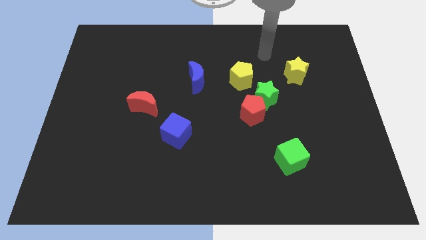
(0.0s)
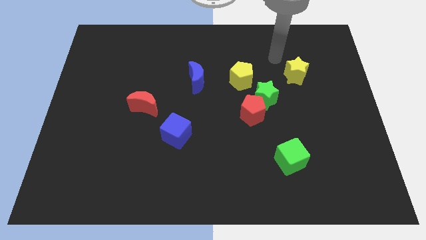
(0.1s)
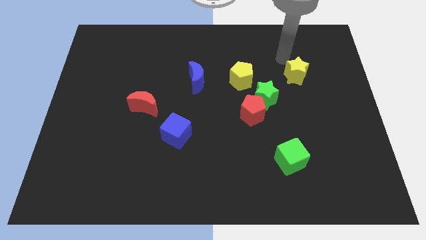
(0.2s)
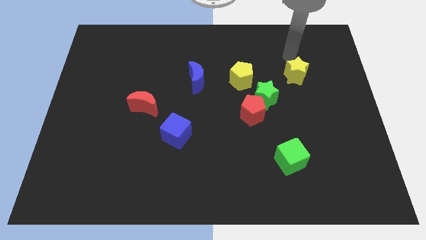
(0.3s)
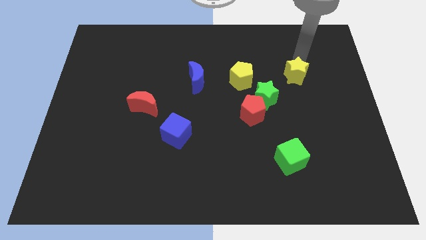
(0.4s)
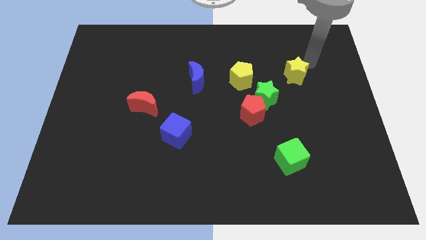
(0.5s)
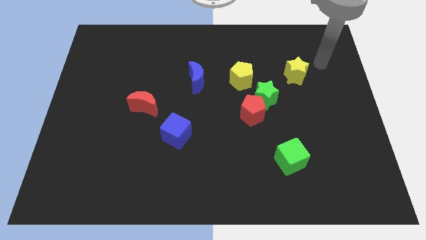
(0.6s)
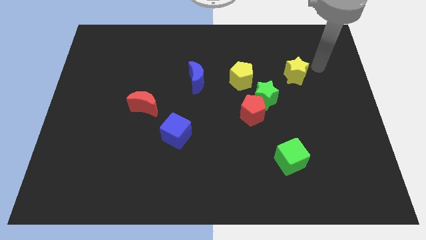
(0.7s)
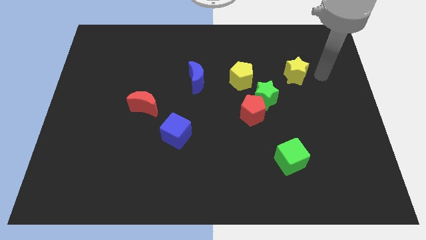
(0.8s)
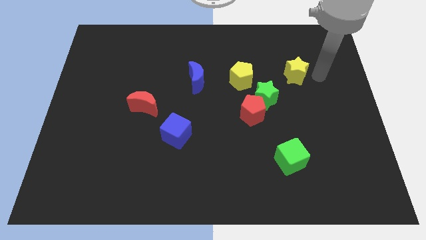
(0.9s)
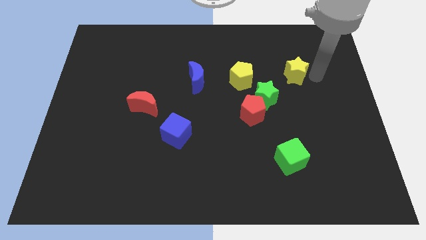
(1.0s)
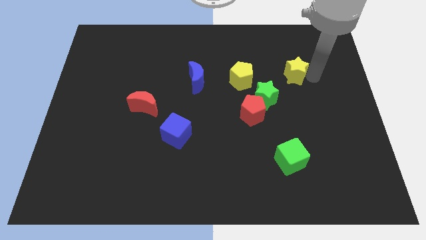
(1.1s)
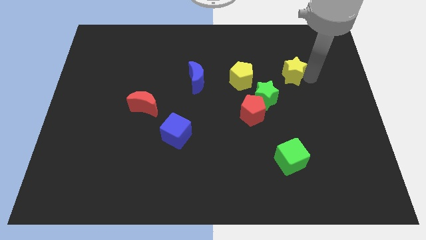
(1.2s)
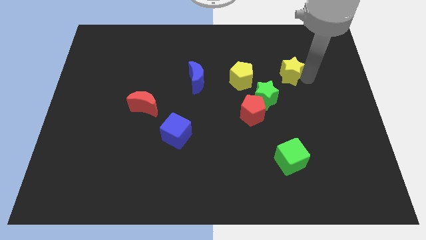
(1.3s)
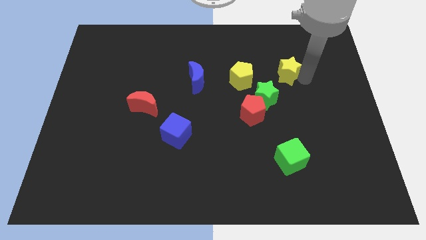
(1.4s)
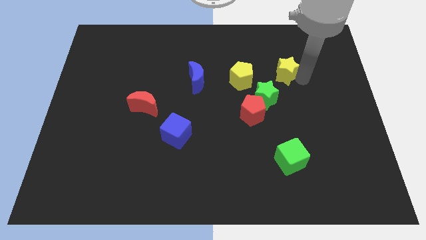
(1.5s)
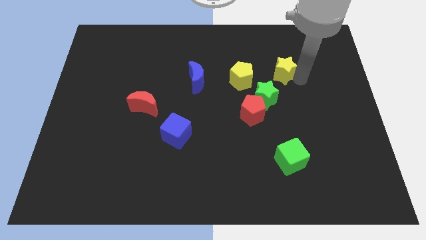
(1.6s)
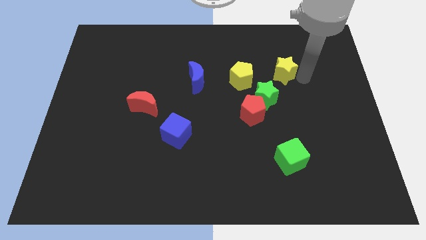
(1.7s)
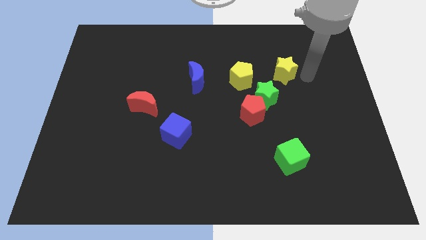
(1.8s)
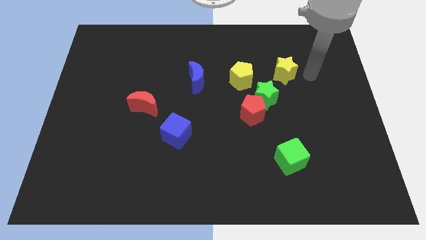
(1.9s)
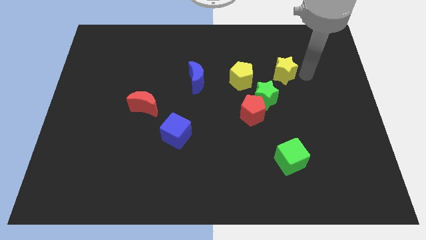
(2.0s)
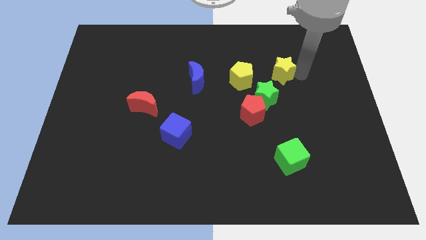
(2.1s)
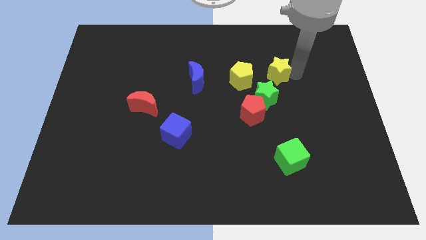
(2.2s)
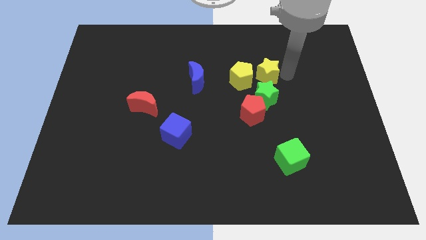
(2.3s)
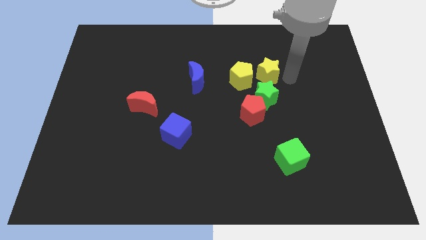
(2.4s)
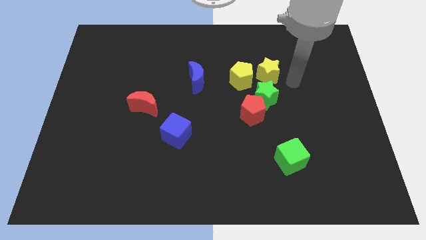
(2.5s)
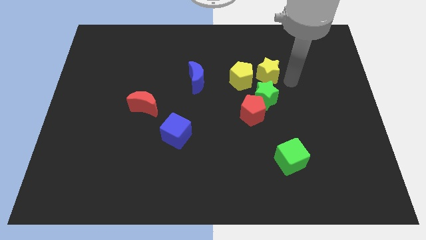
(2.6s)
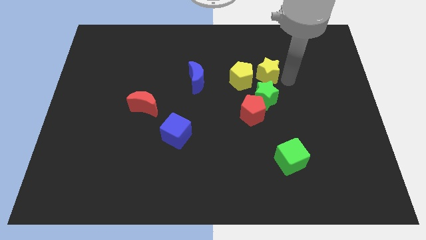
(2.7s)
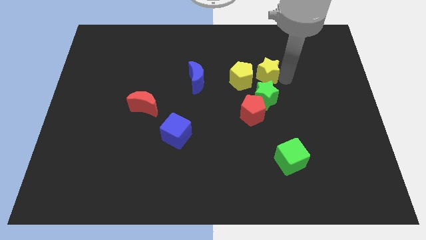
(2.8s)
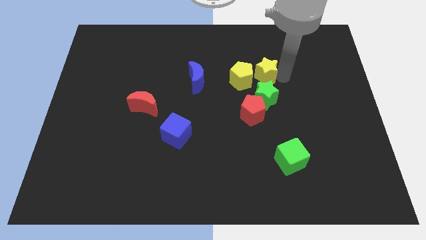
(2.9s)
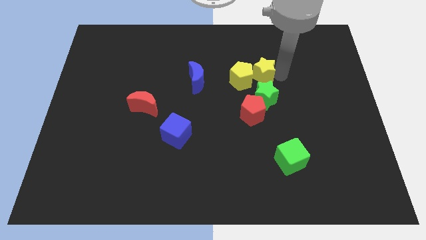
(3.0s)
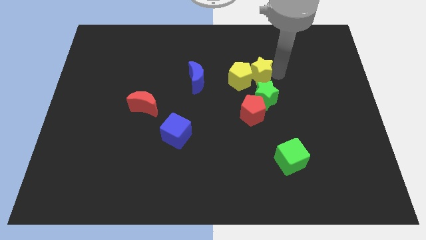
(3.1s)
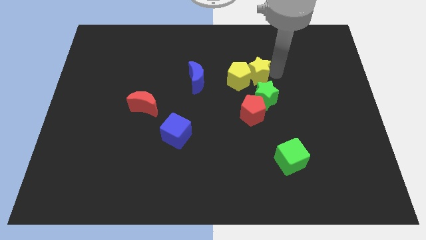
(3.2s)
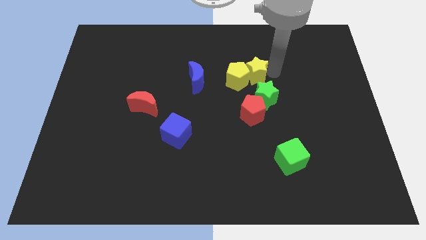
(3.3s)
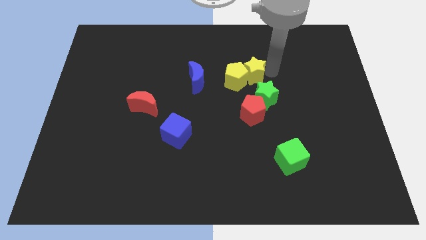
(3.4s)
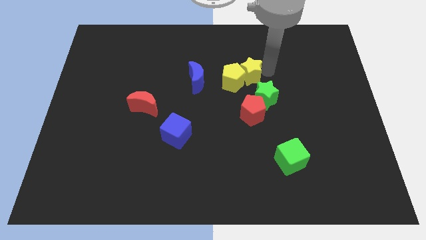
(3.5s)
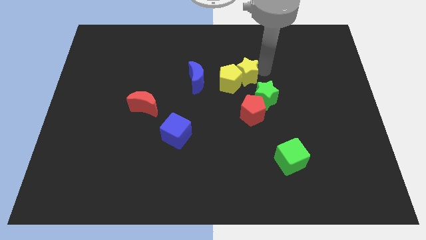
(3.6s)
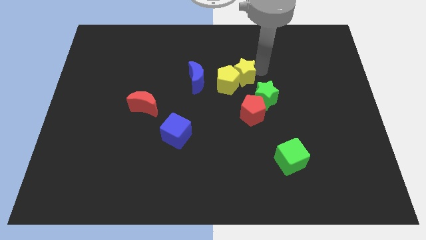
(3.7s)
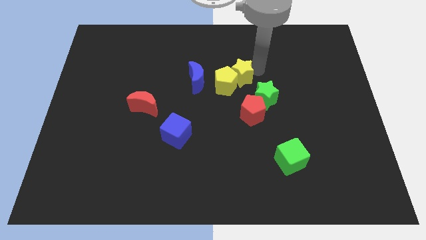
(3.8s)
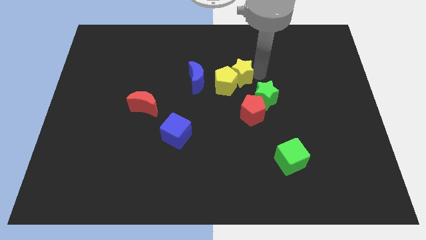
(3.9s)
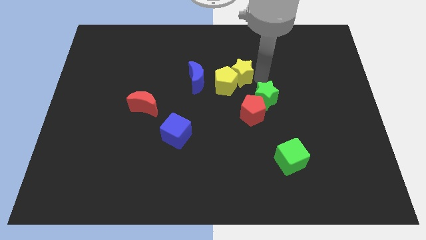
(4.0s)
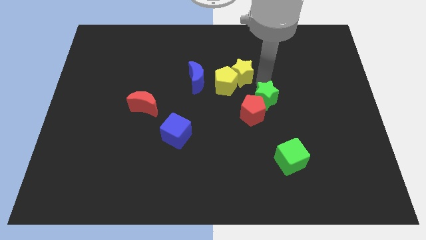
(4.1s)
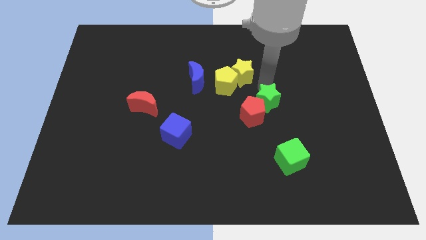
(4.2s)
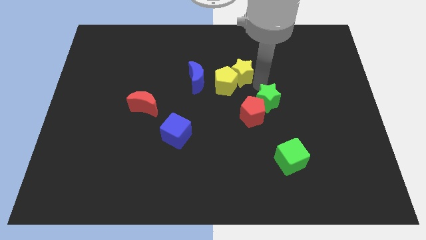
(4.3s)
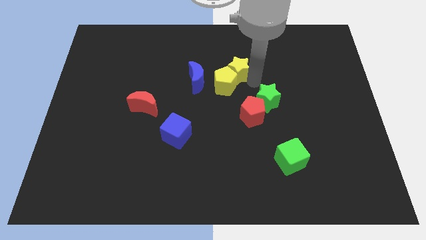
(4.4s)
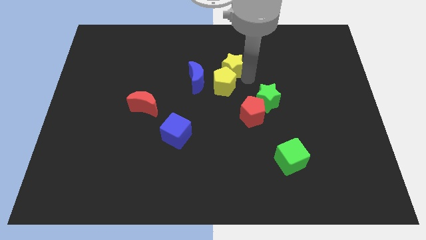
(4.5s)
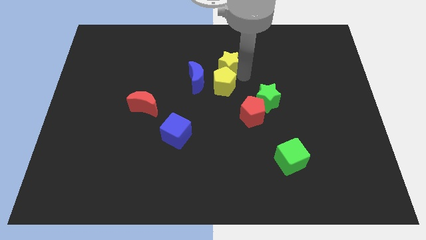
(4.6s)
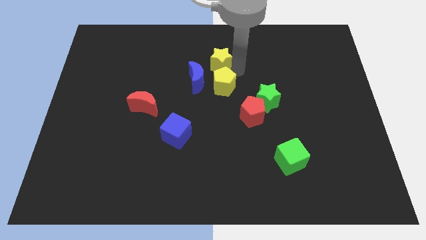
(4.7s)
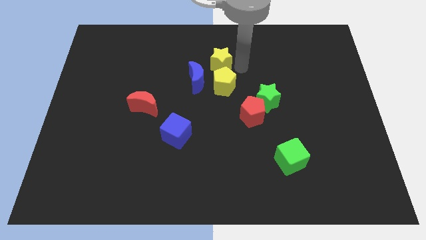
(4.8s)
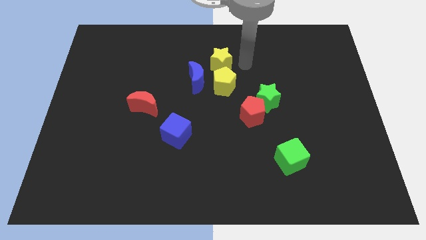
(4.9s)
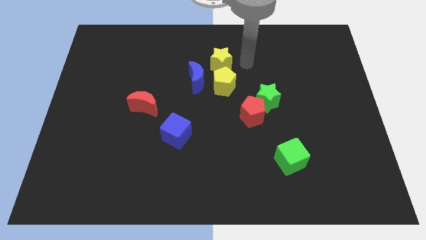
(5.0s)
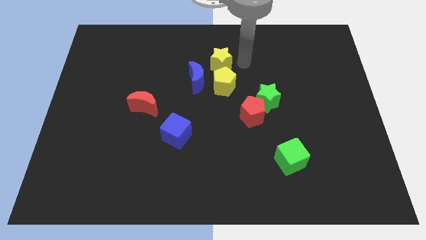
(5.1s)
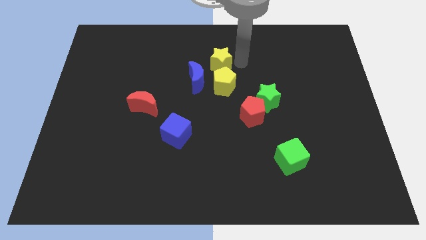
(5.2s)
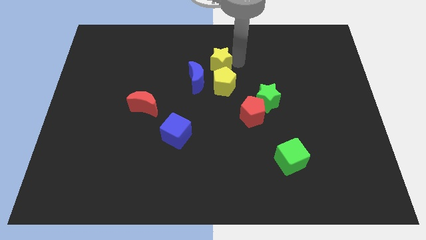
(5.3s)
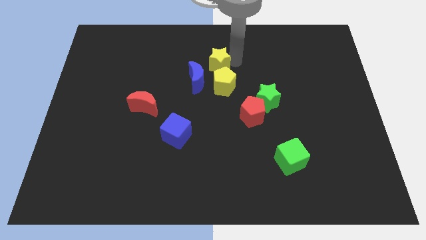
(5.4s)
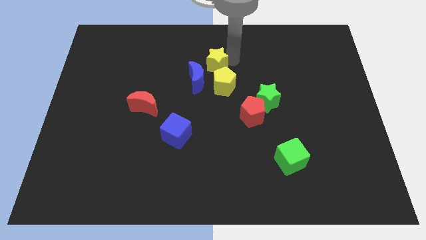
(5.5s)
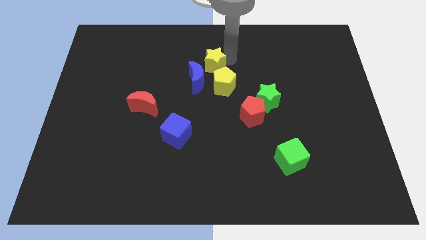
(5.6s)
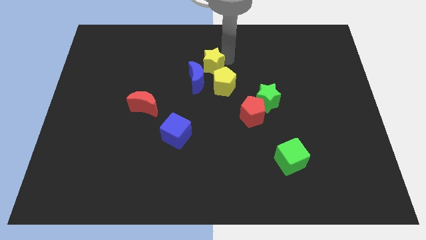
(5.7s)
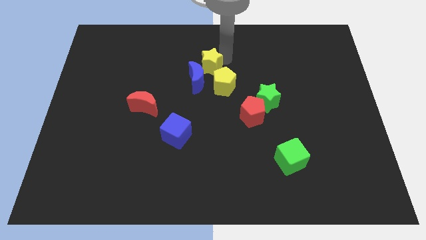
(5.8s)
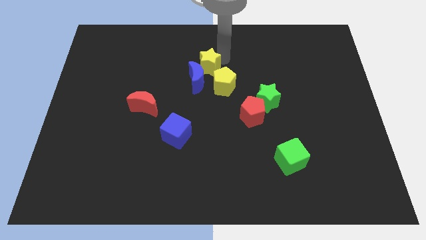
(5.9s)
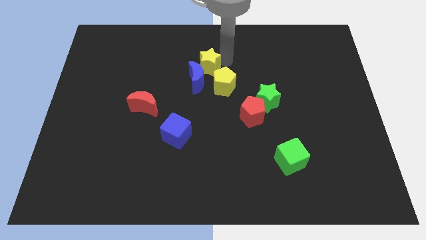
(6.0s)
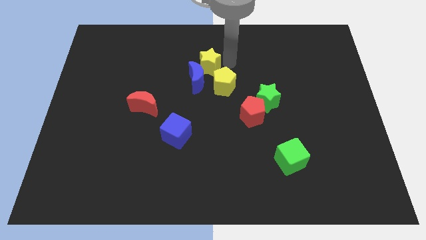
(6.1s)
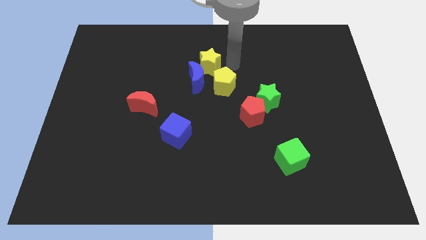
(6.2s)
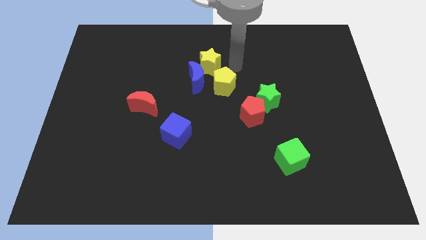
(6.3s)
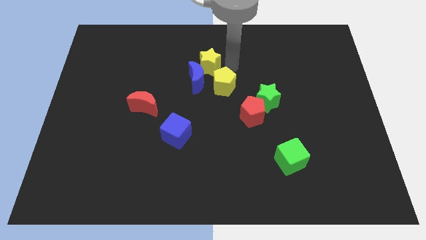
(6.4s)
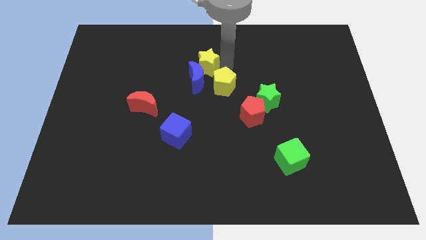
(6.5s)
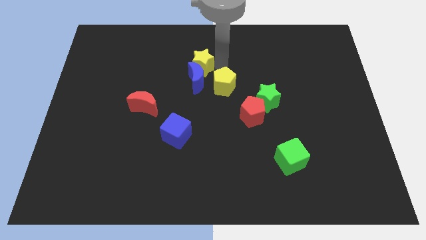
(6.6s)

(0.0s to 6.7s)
slide the yellow star to the top left side of the blue moon

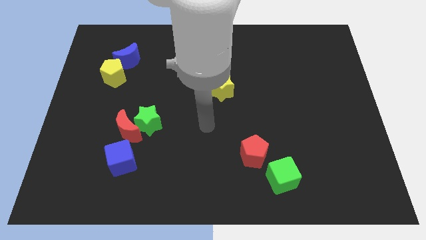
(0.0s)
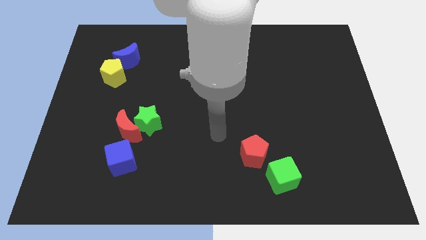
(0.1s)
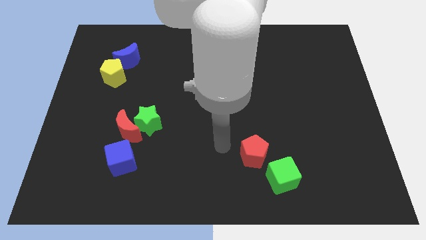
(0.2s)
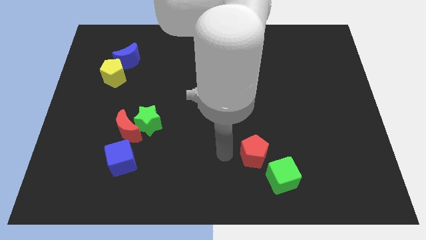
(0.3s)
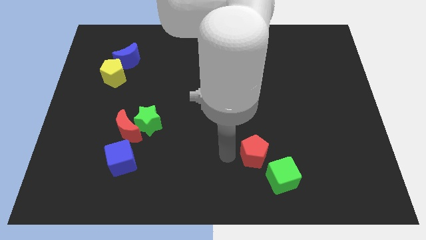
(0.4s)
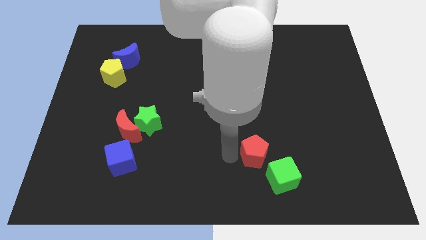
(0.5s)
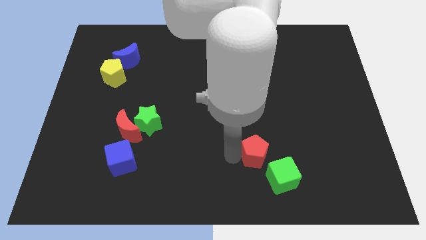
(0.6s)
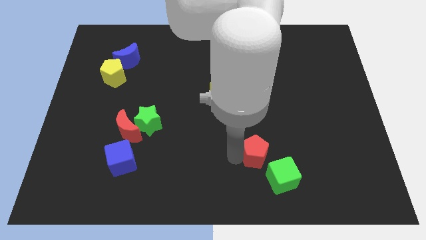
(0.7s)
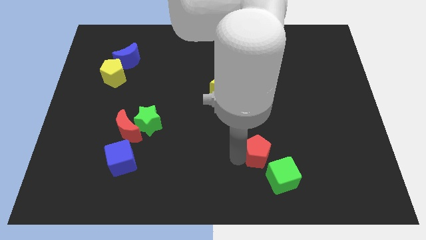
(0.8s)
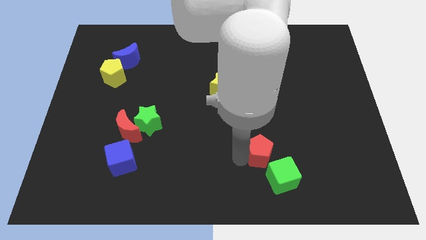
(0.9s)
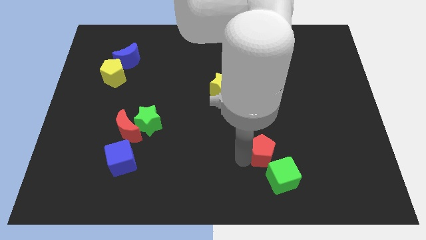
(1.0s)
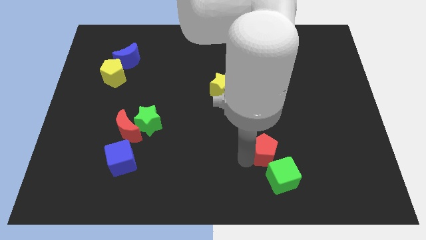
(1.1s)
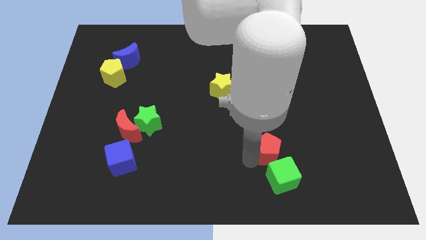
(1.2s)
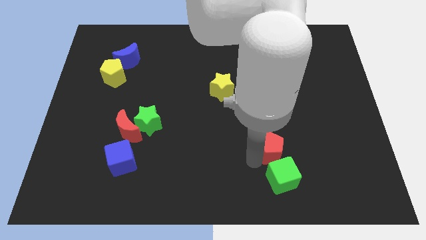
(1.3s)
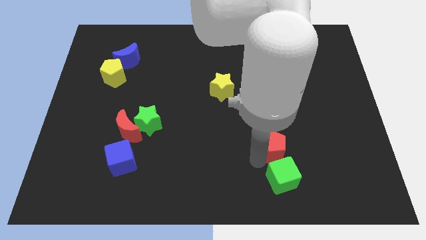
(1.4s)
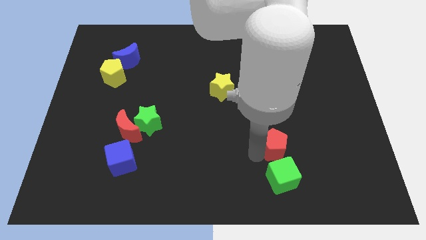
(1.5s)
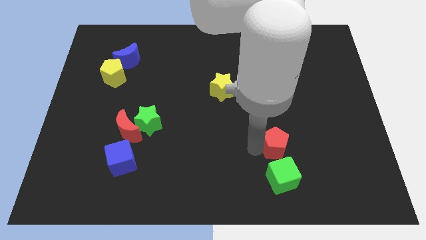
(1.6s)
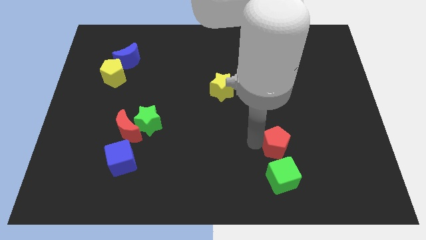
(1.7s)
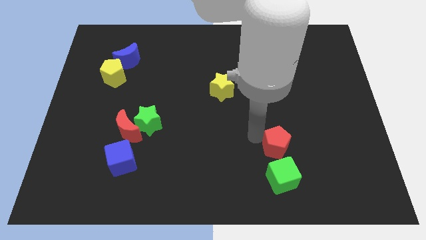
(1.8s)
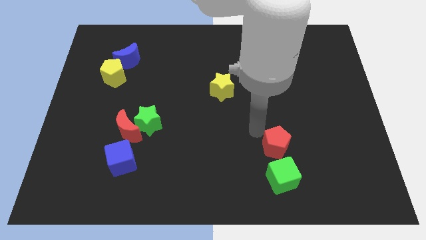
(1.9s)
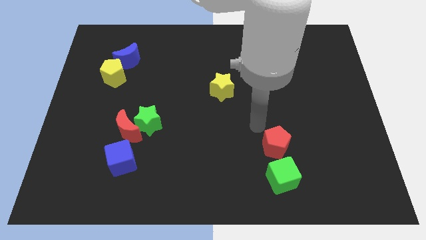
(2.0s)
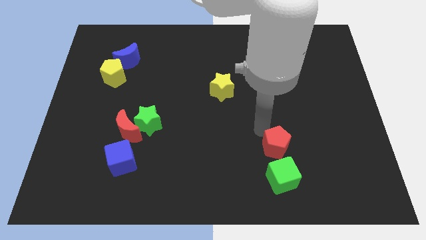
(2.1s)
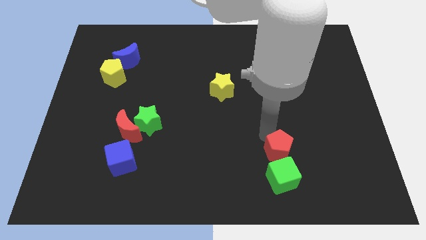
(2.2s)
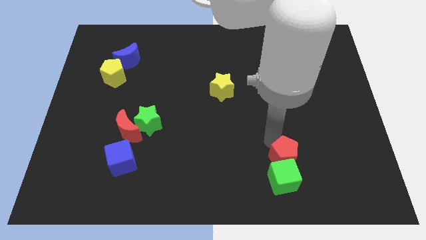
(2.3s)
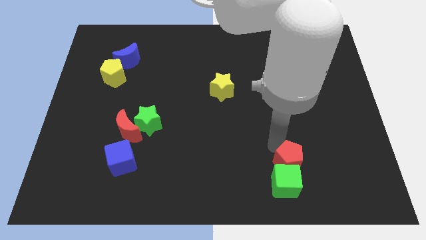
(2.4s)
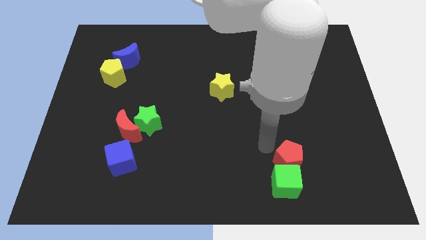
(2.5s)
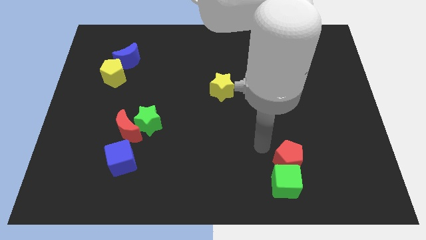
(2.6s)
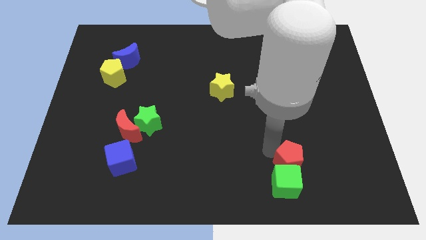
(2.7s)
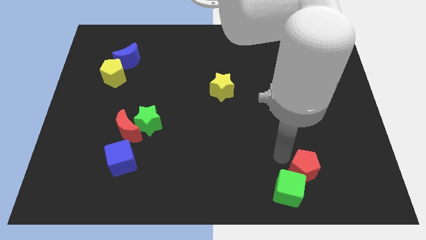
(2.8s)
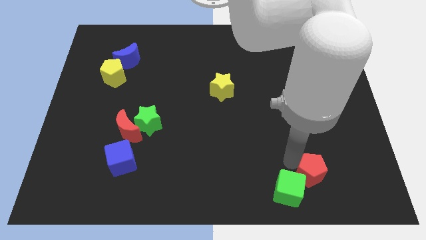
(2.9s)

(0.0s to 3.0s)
push the red pentagon to the right of the green cube
